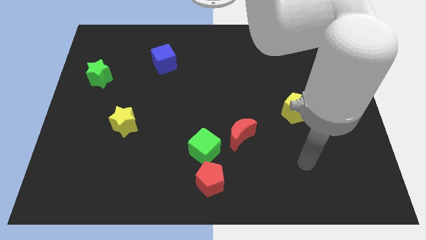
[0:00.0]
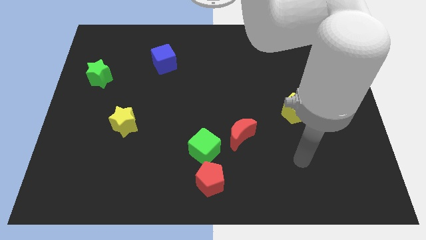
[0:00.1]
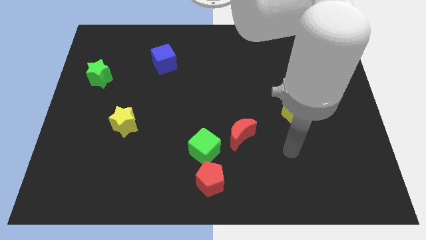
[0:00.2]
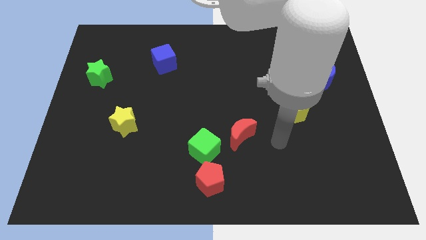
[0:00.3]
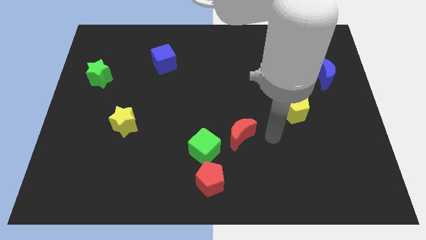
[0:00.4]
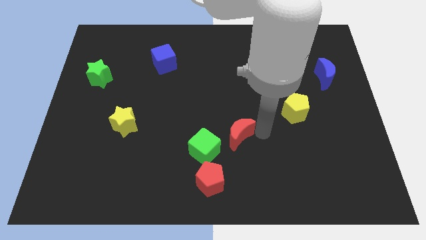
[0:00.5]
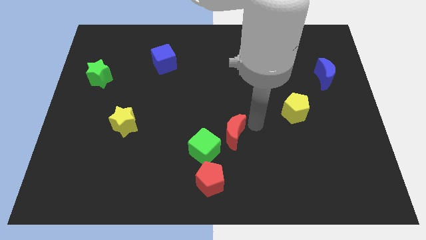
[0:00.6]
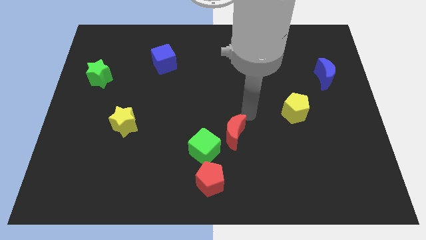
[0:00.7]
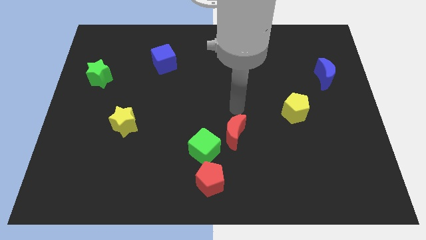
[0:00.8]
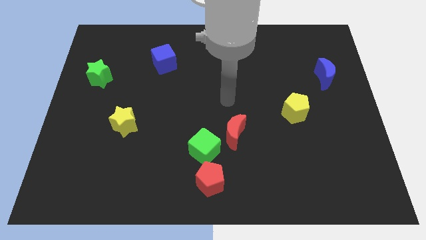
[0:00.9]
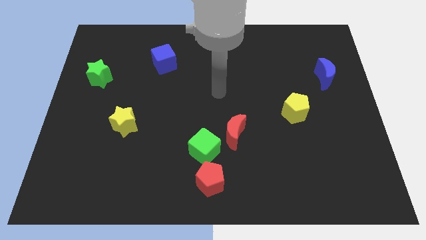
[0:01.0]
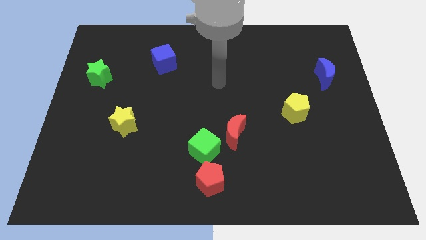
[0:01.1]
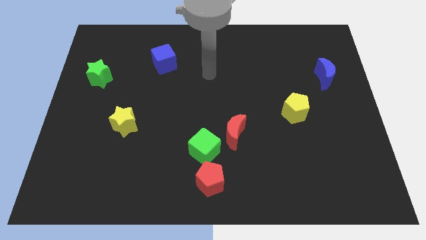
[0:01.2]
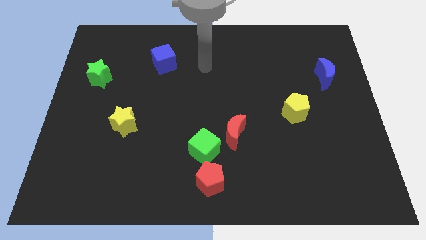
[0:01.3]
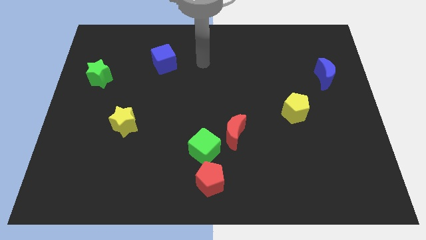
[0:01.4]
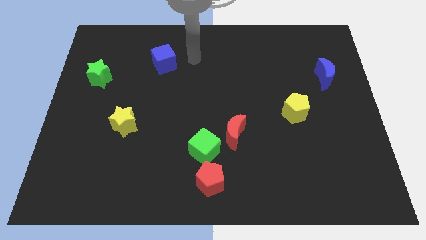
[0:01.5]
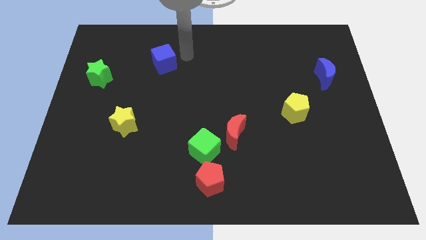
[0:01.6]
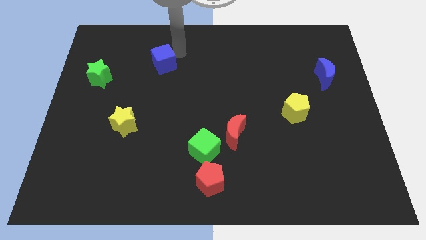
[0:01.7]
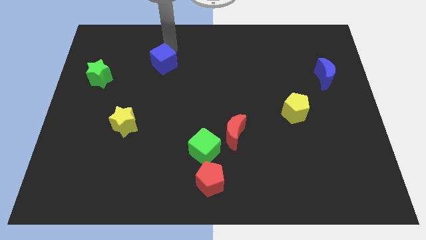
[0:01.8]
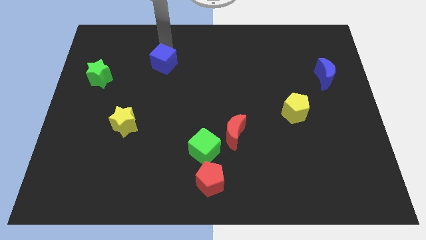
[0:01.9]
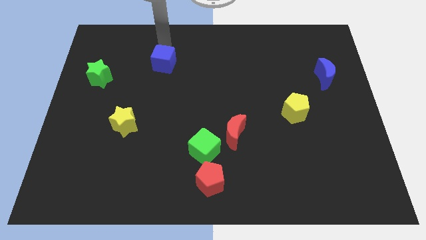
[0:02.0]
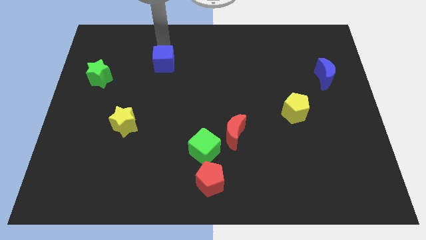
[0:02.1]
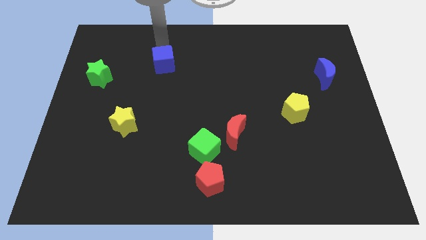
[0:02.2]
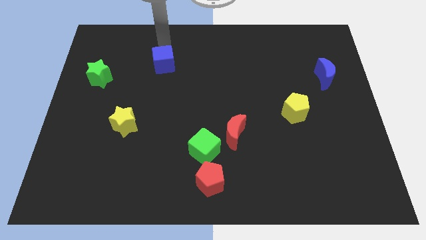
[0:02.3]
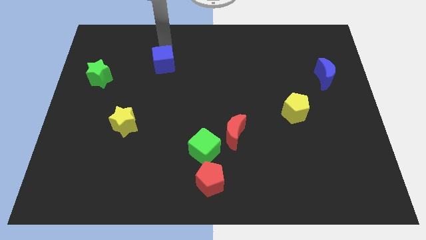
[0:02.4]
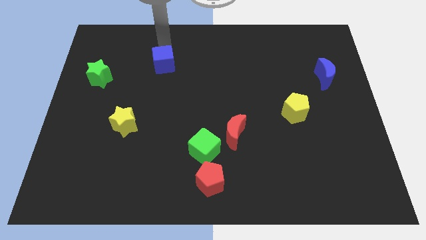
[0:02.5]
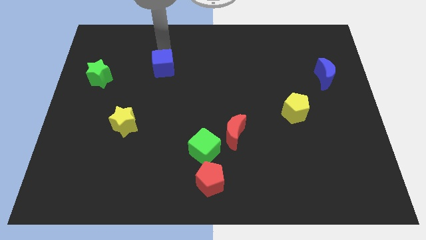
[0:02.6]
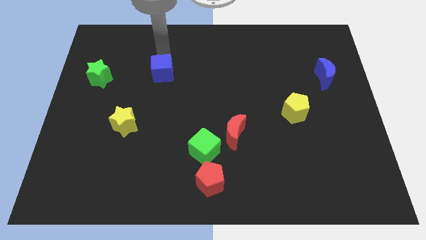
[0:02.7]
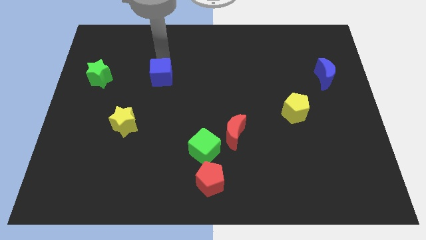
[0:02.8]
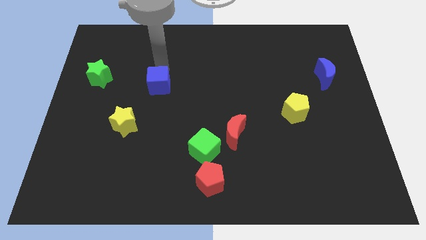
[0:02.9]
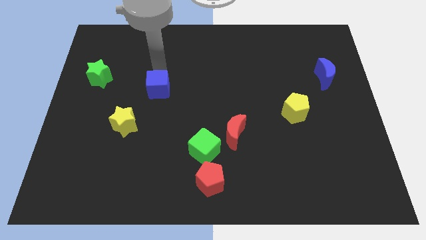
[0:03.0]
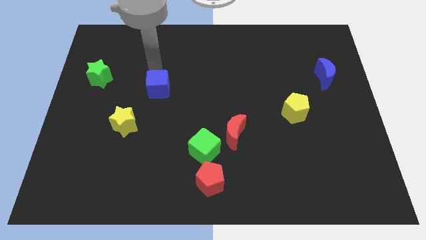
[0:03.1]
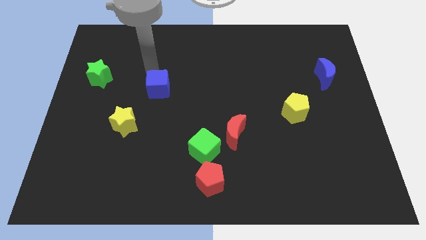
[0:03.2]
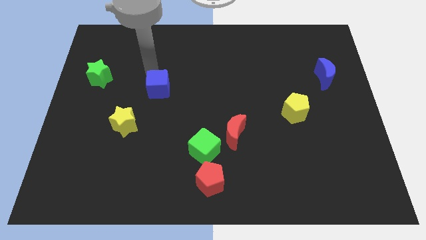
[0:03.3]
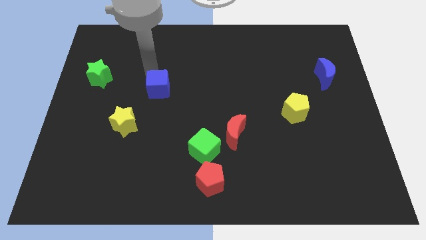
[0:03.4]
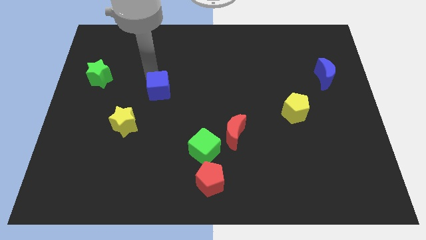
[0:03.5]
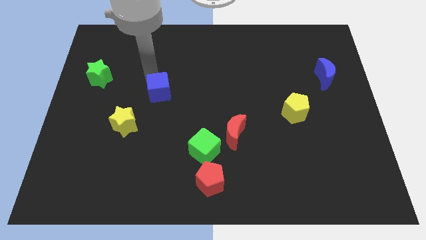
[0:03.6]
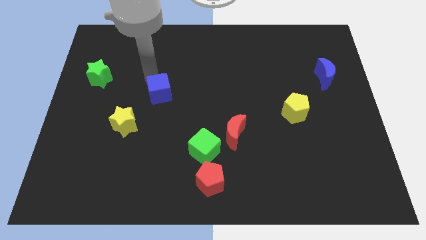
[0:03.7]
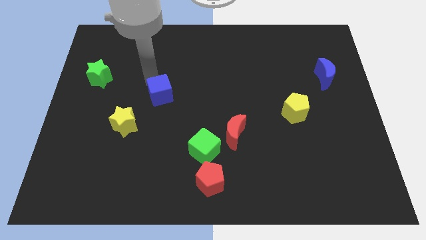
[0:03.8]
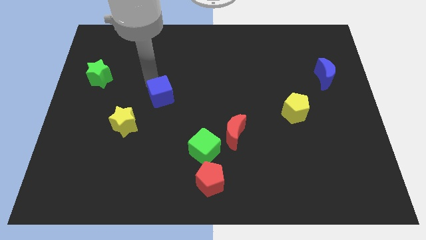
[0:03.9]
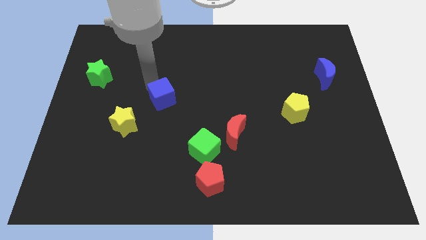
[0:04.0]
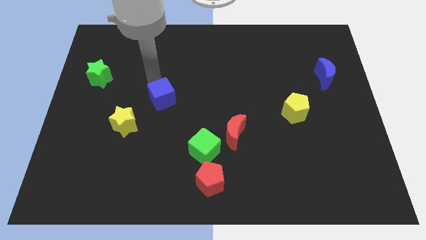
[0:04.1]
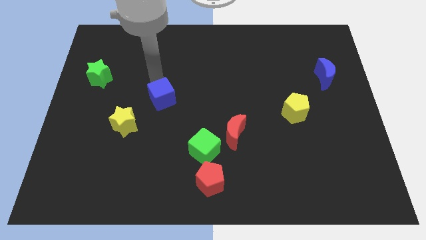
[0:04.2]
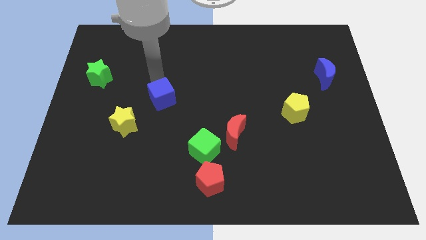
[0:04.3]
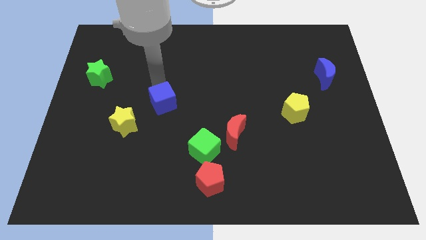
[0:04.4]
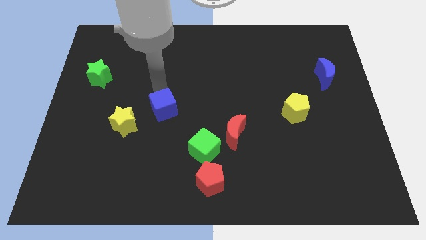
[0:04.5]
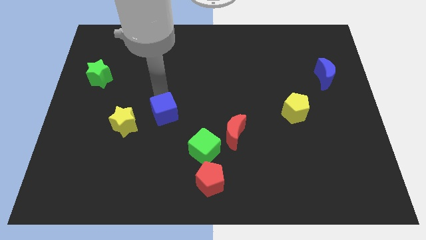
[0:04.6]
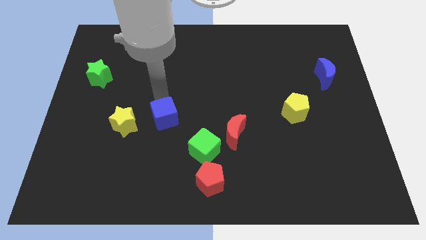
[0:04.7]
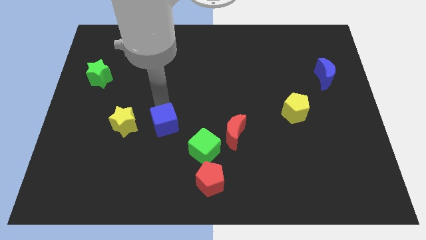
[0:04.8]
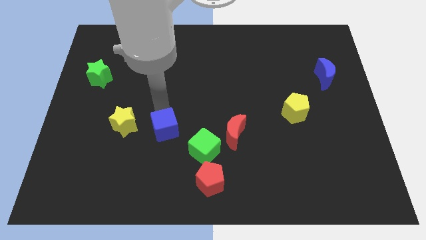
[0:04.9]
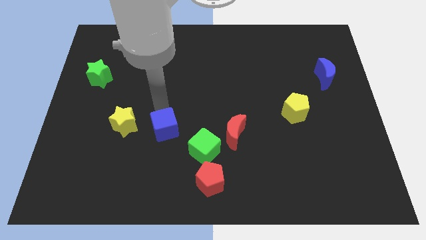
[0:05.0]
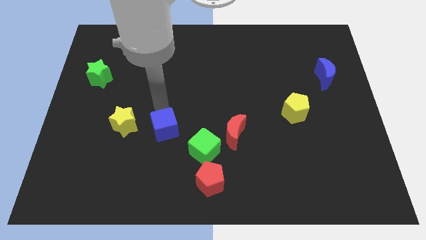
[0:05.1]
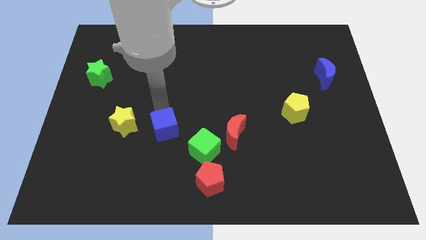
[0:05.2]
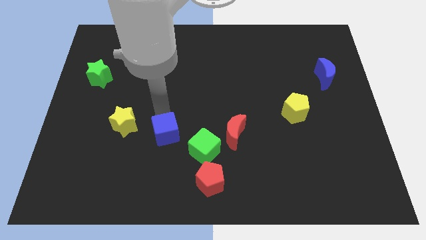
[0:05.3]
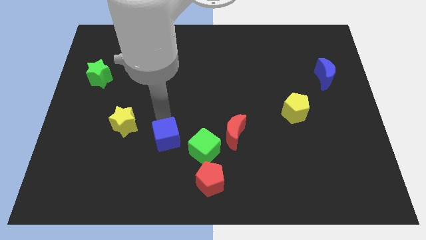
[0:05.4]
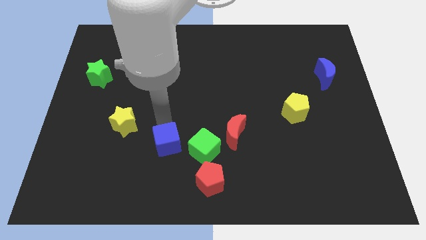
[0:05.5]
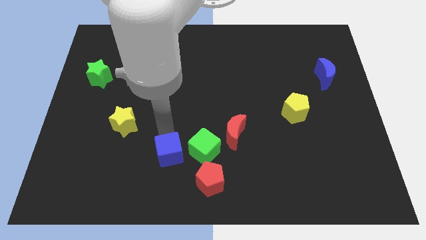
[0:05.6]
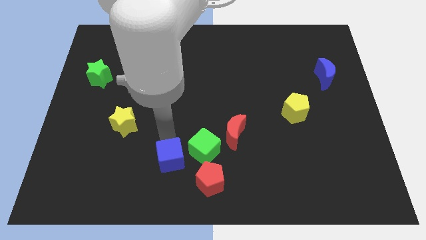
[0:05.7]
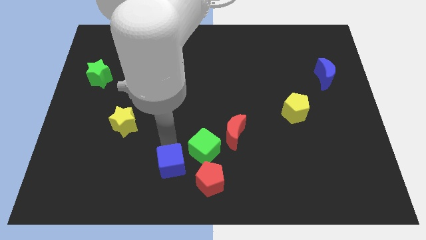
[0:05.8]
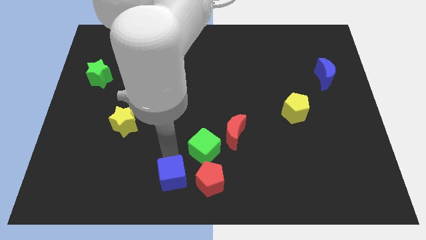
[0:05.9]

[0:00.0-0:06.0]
put the blue cube to the bottom side

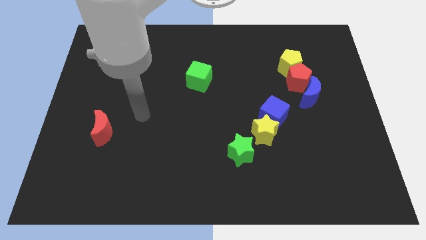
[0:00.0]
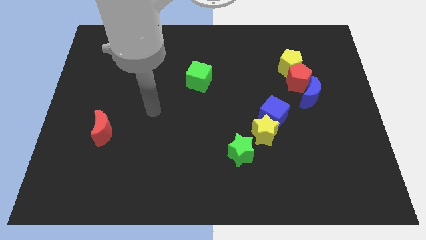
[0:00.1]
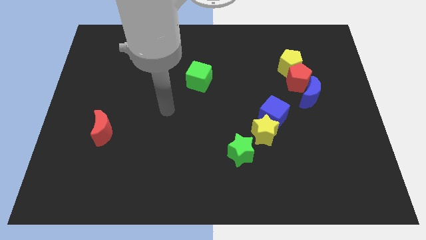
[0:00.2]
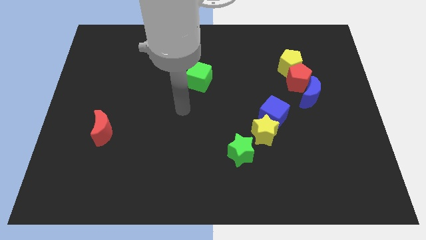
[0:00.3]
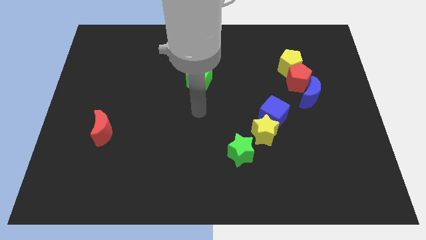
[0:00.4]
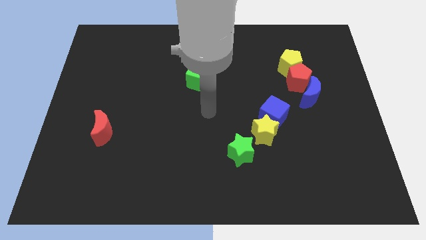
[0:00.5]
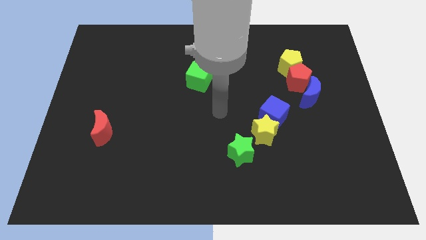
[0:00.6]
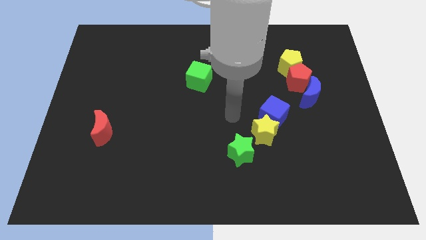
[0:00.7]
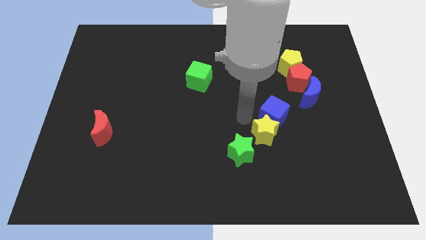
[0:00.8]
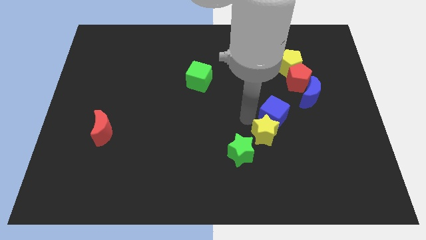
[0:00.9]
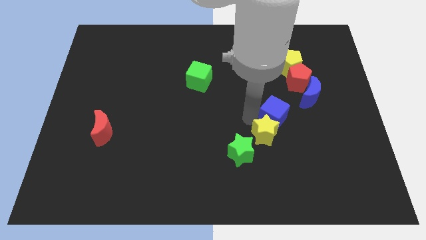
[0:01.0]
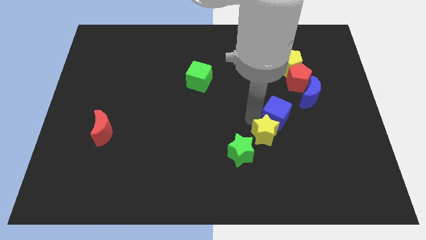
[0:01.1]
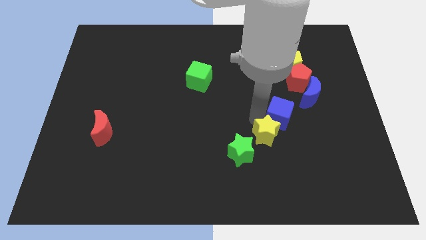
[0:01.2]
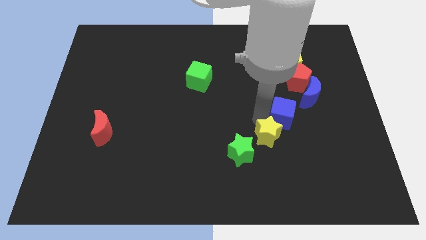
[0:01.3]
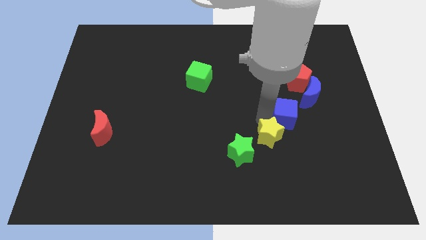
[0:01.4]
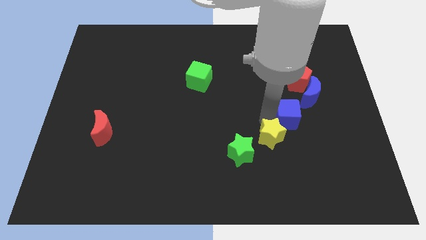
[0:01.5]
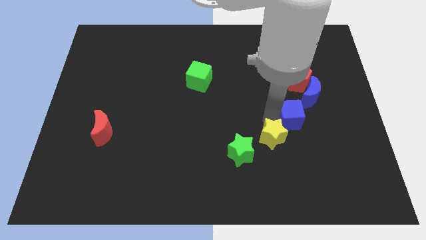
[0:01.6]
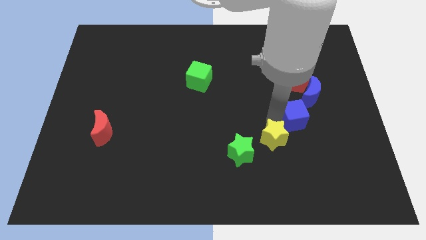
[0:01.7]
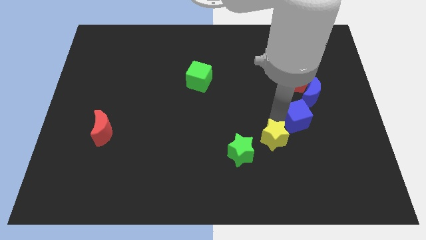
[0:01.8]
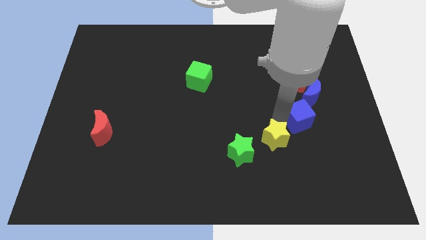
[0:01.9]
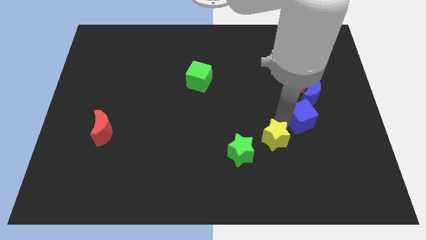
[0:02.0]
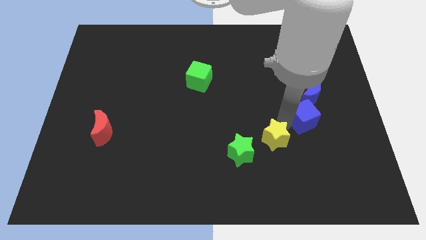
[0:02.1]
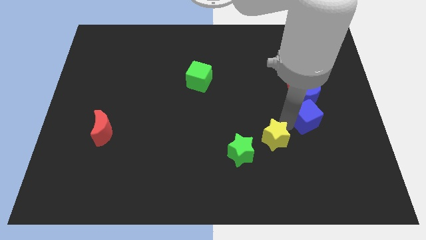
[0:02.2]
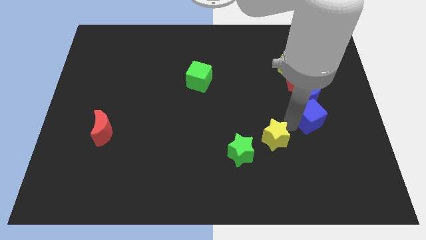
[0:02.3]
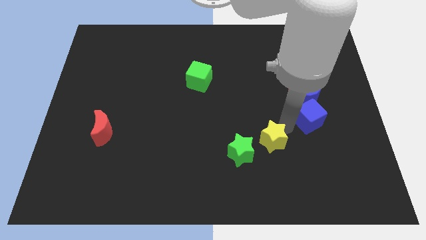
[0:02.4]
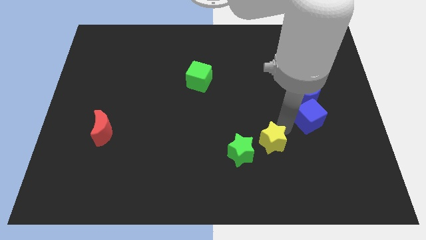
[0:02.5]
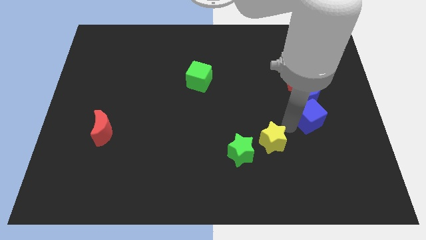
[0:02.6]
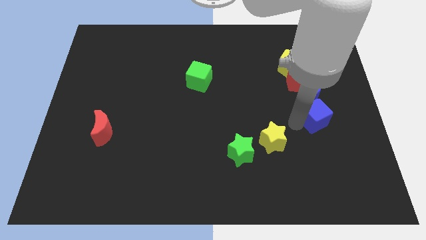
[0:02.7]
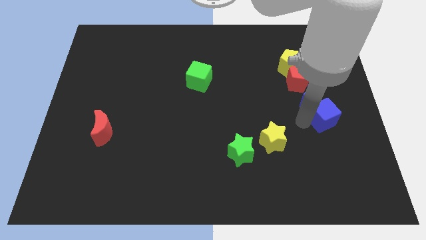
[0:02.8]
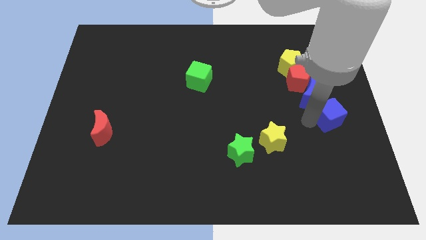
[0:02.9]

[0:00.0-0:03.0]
put the blue cube to the right side of the board
